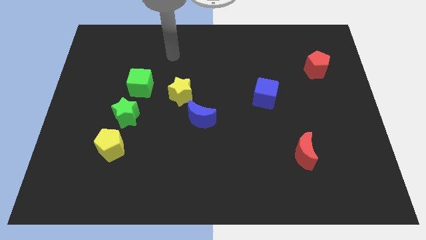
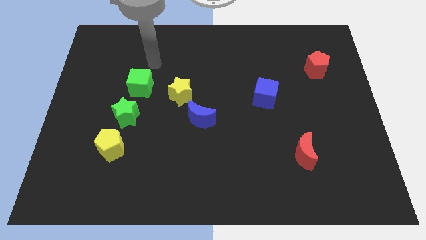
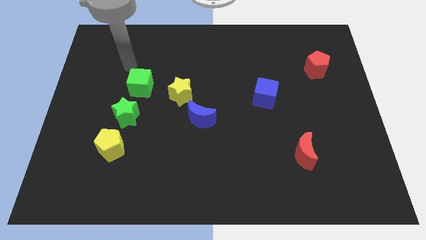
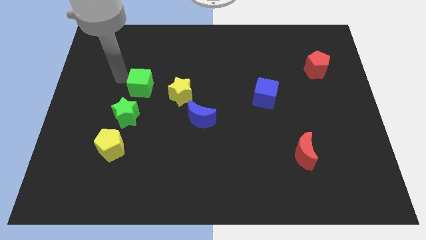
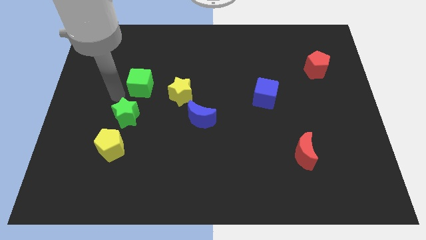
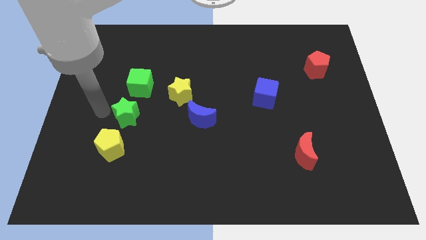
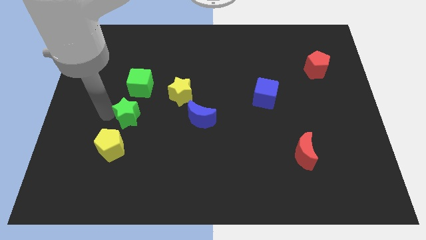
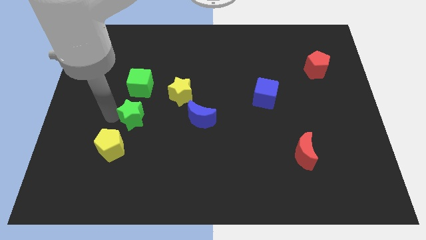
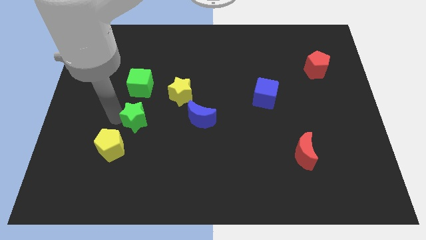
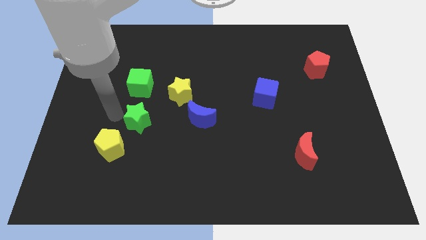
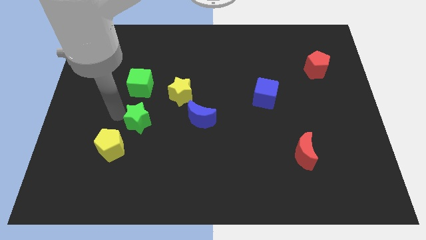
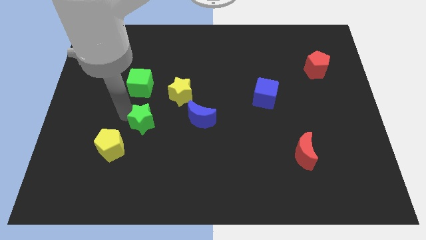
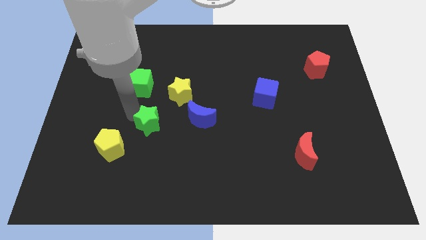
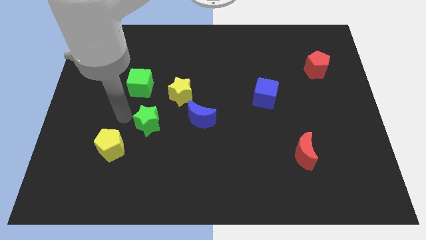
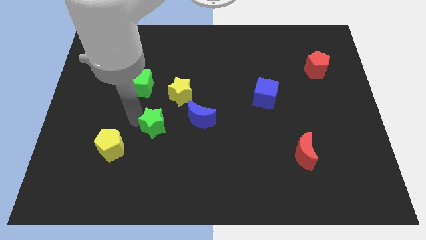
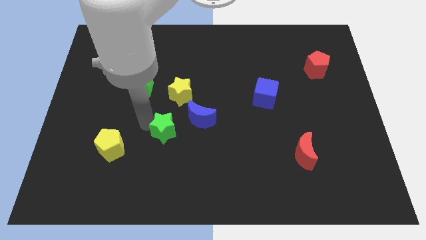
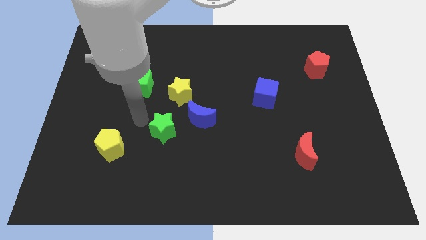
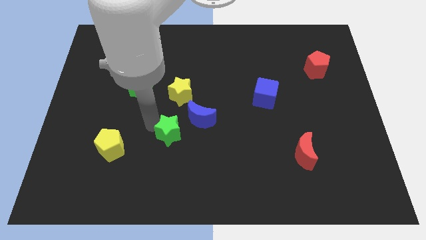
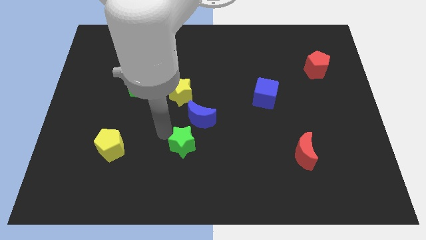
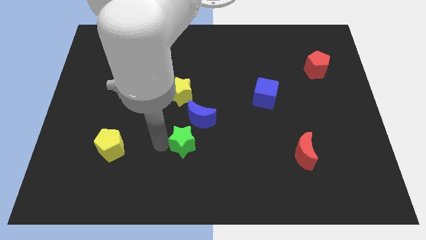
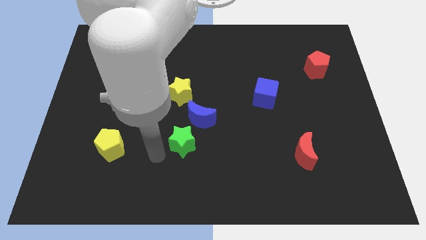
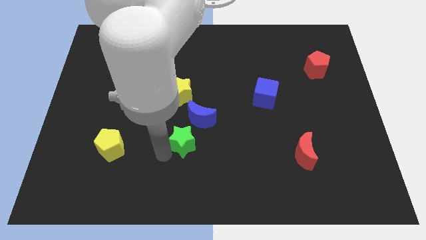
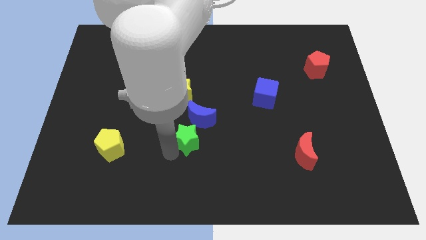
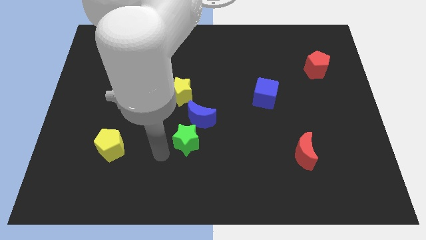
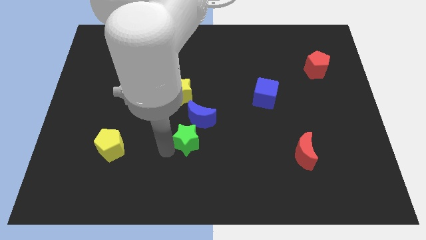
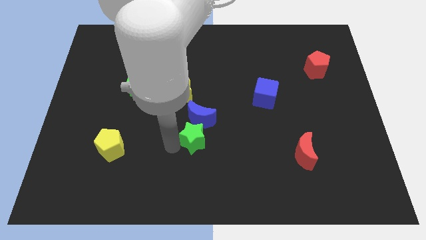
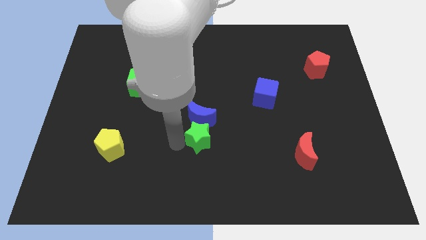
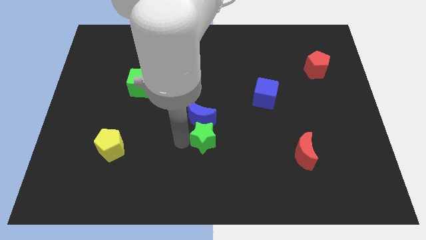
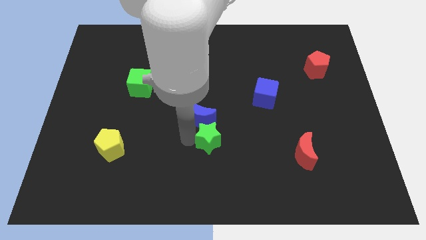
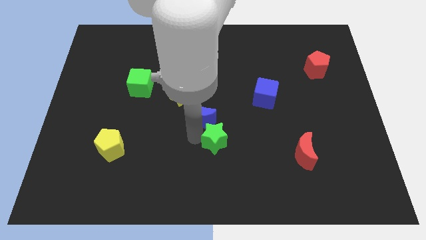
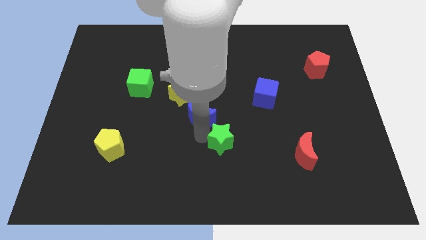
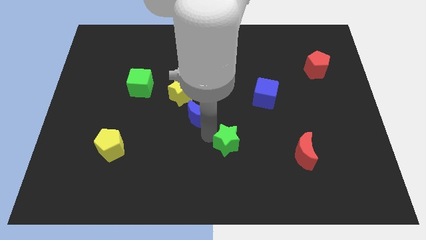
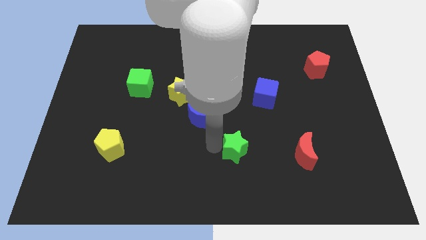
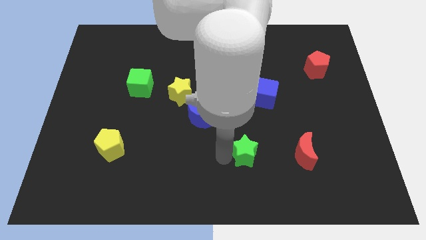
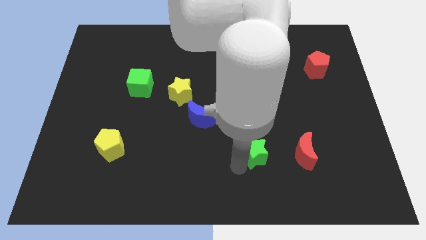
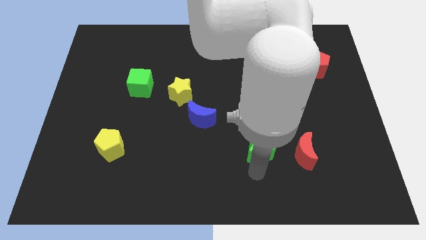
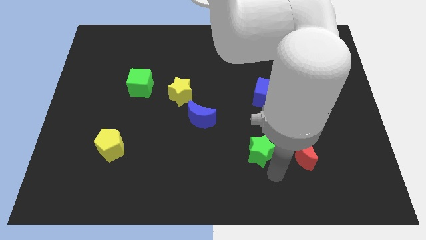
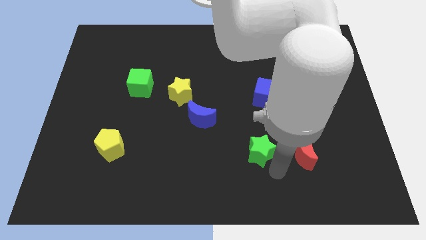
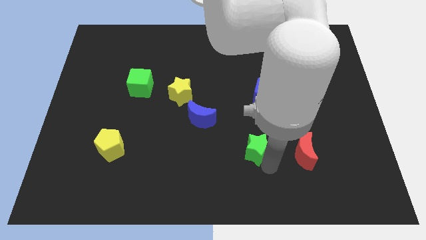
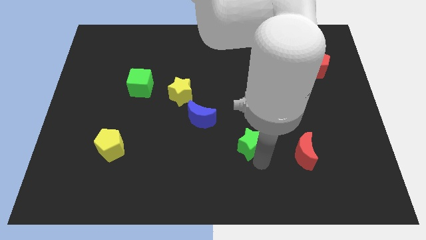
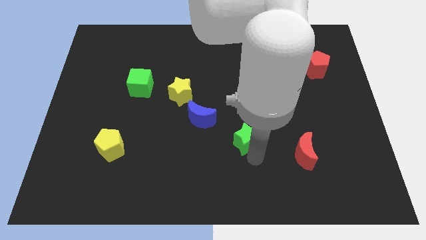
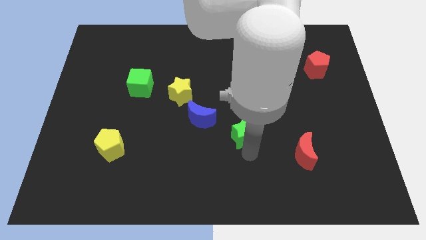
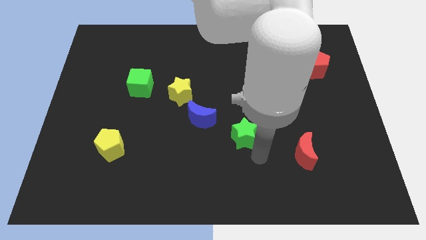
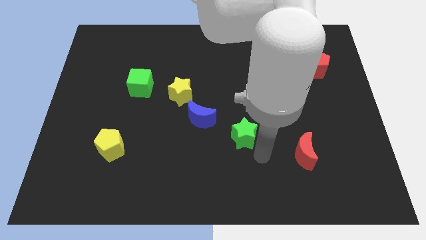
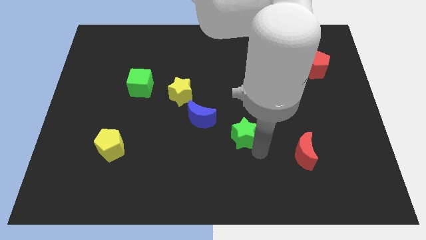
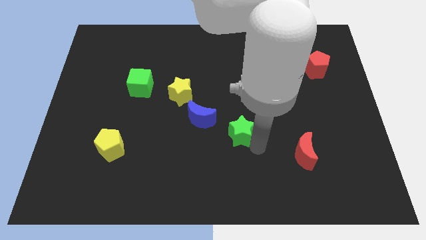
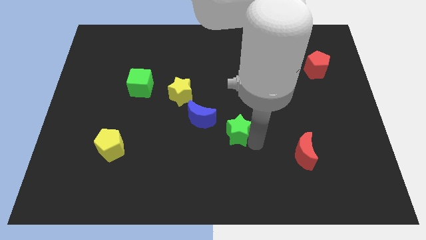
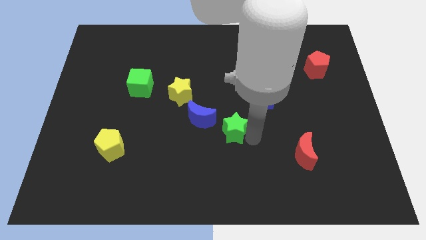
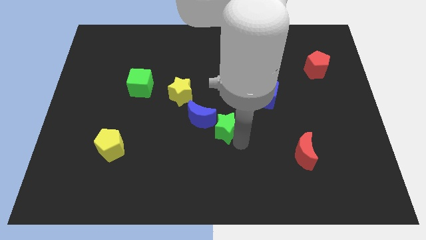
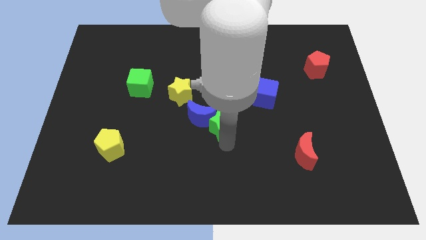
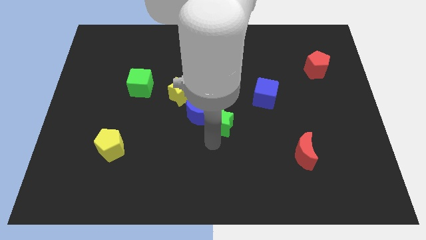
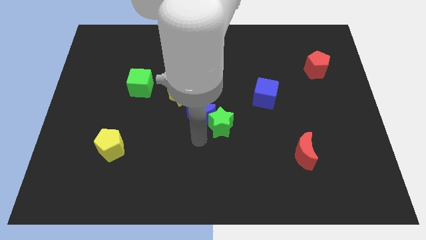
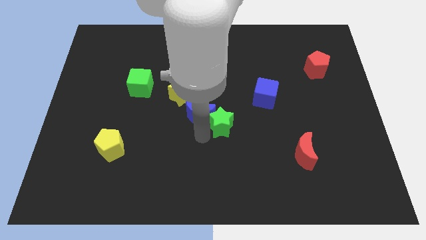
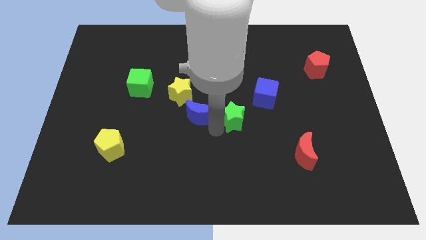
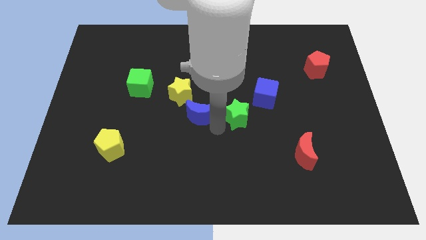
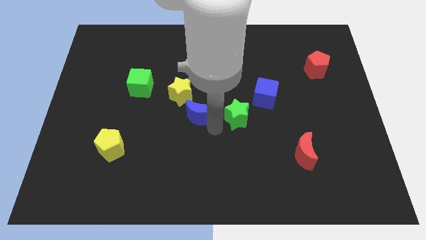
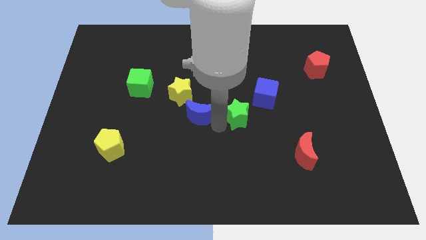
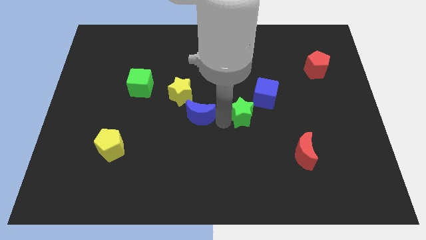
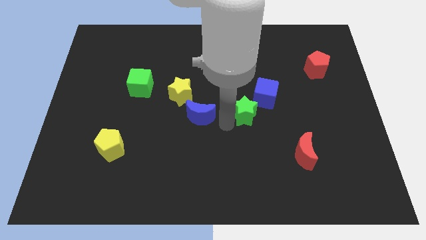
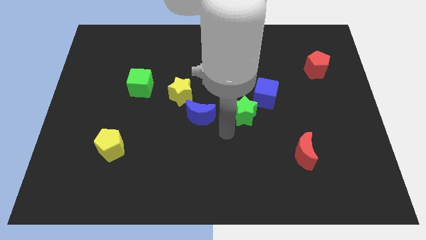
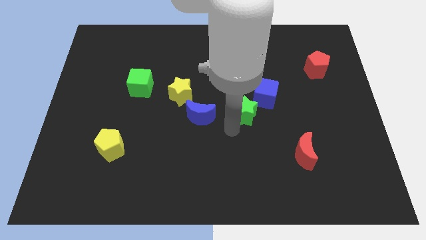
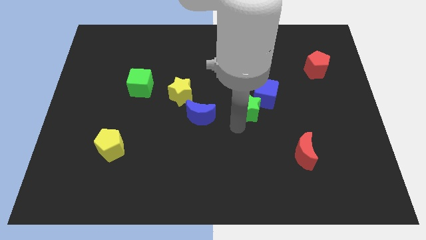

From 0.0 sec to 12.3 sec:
put the green star towards the blue cube
